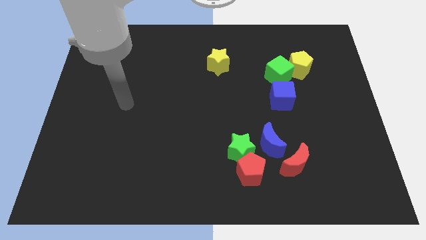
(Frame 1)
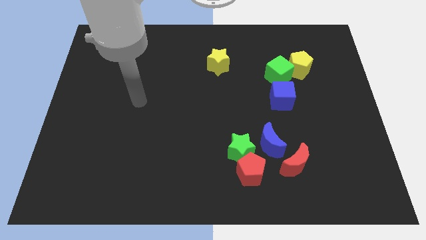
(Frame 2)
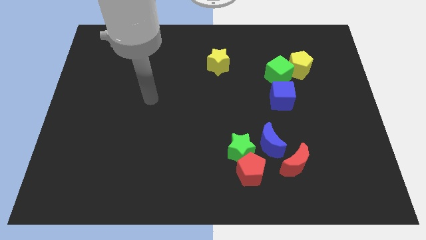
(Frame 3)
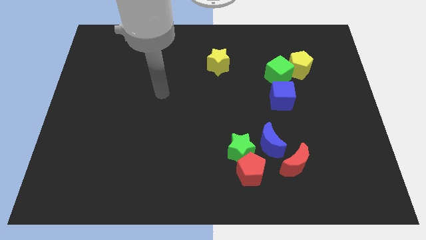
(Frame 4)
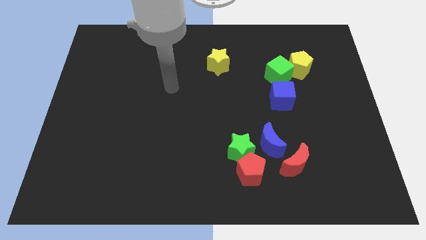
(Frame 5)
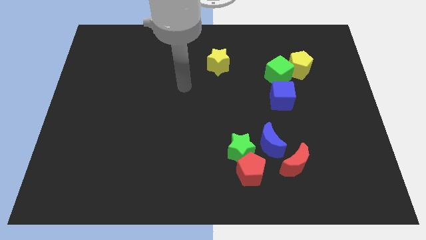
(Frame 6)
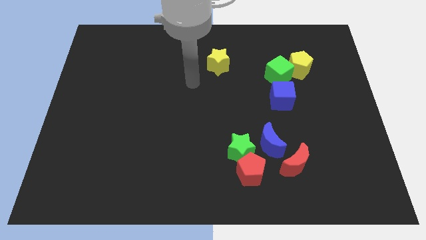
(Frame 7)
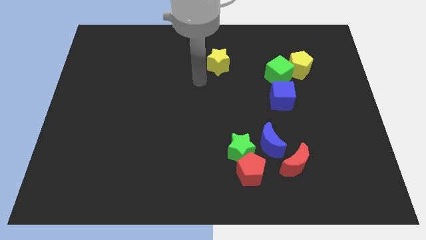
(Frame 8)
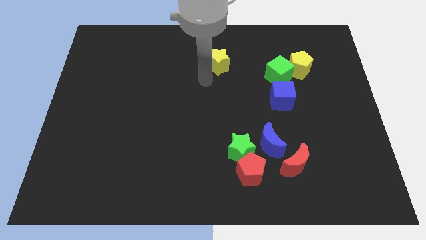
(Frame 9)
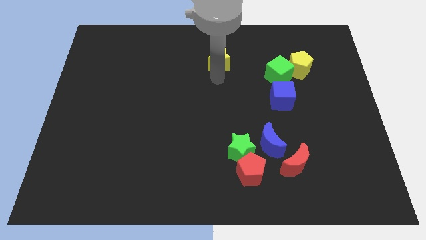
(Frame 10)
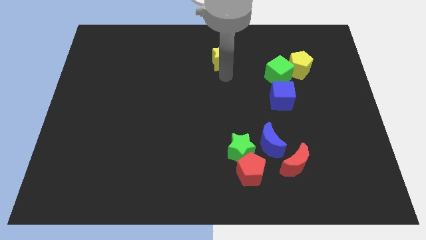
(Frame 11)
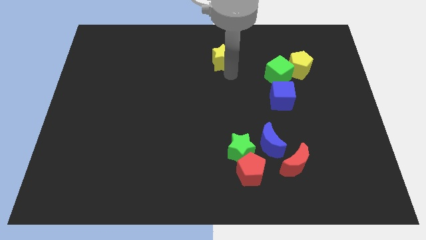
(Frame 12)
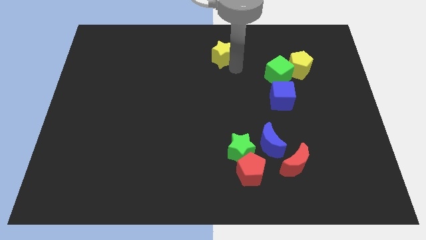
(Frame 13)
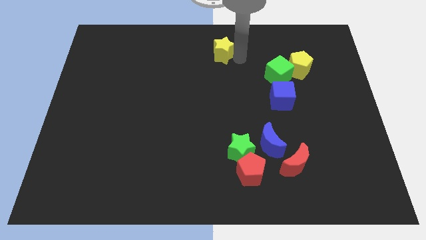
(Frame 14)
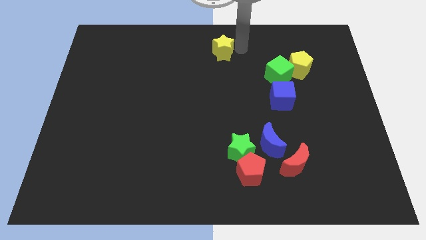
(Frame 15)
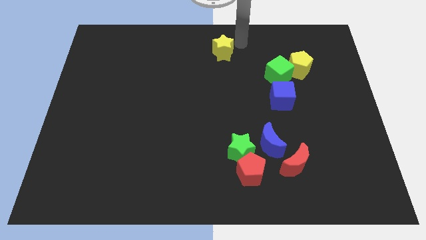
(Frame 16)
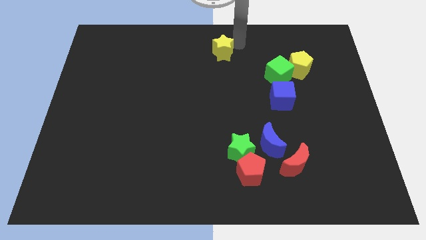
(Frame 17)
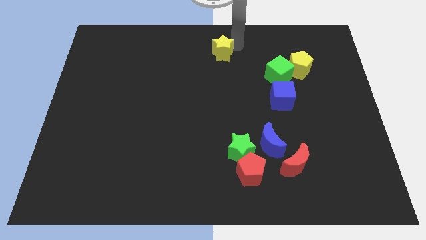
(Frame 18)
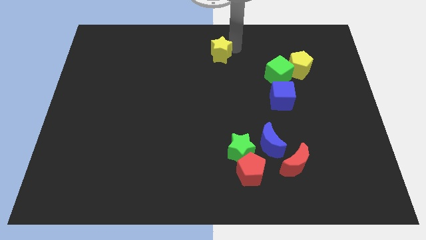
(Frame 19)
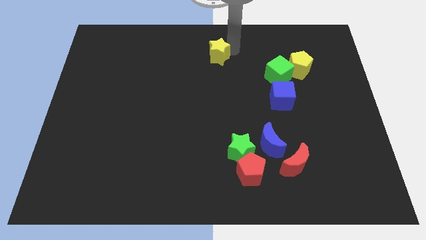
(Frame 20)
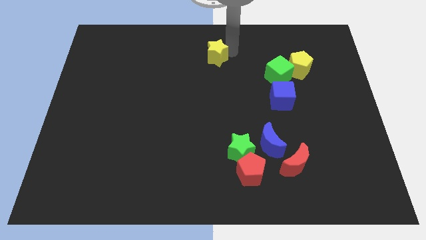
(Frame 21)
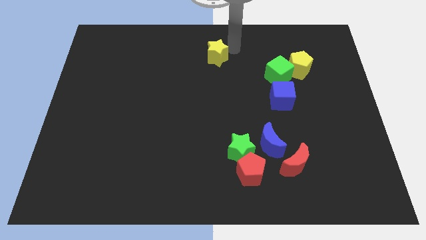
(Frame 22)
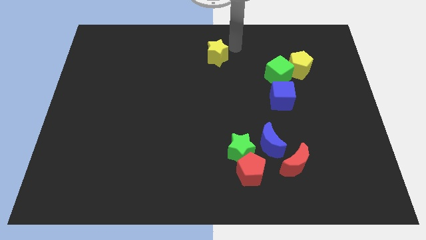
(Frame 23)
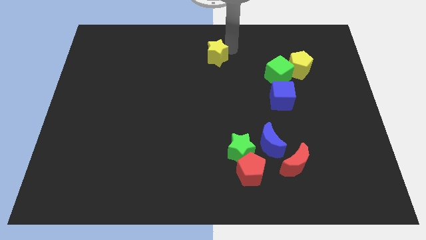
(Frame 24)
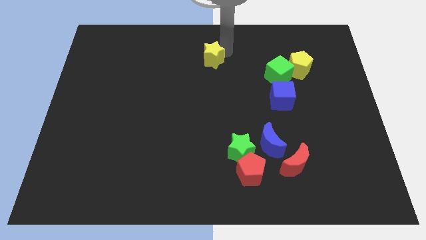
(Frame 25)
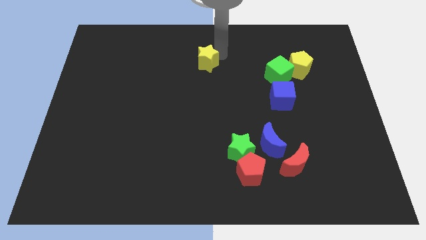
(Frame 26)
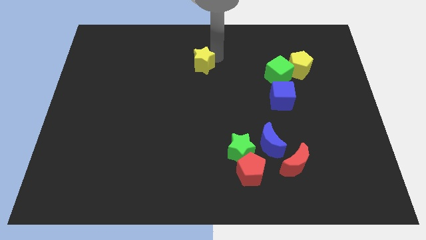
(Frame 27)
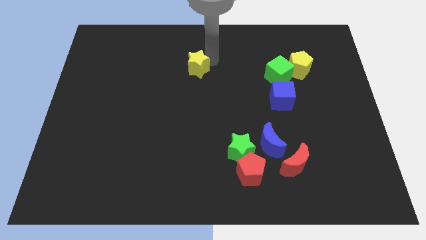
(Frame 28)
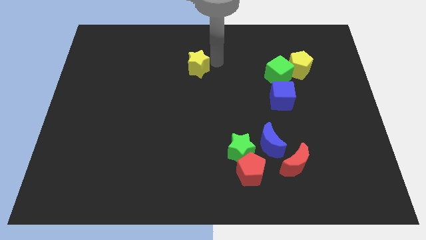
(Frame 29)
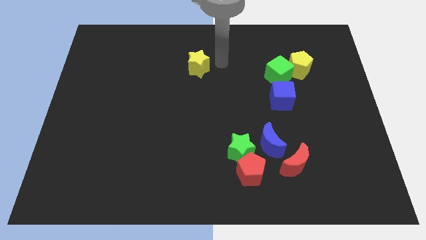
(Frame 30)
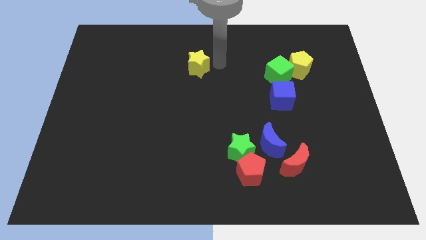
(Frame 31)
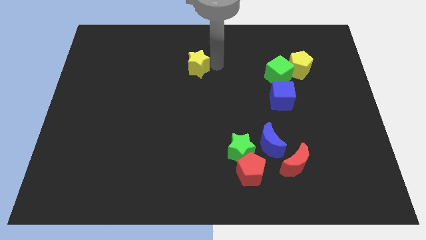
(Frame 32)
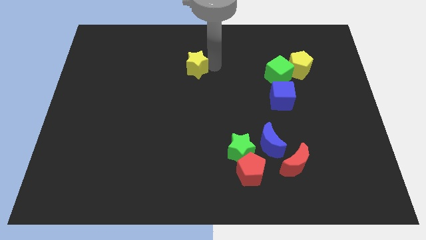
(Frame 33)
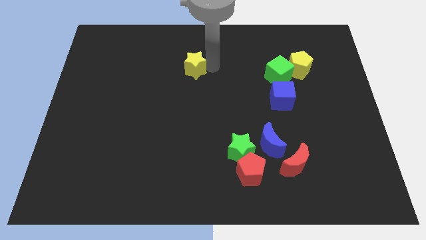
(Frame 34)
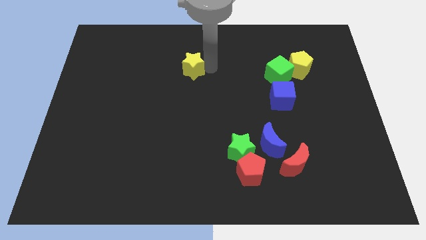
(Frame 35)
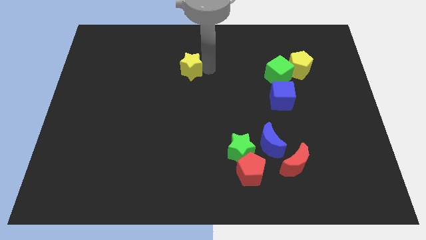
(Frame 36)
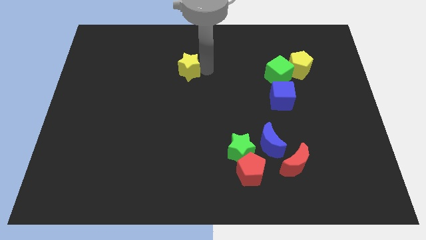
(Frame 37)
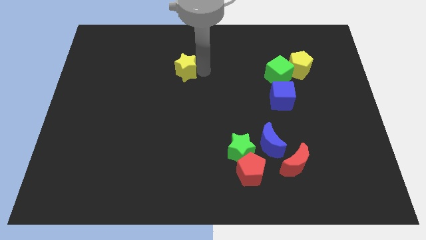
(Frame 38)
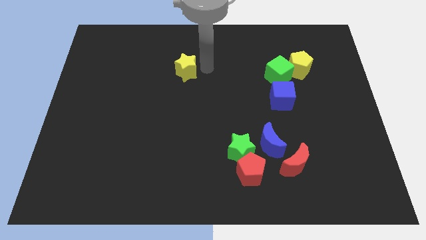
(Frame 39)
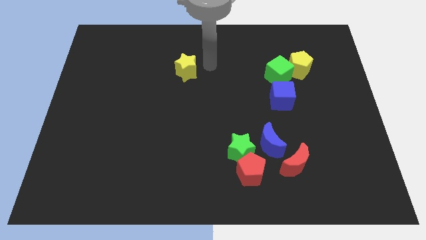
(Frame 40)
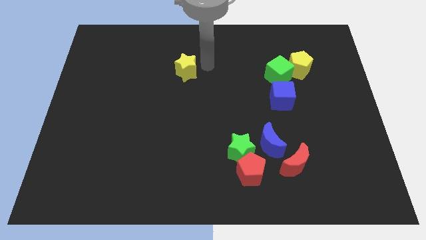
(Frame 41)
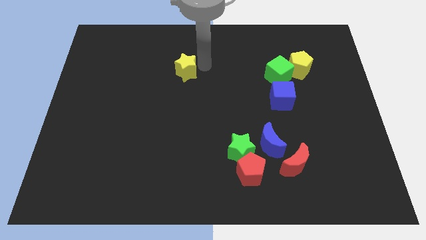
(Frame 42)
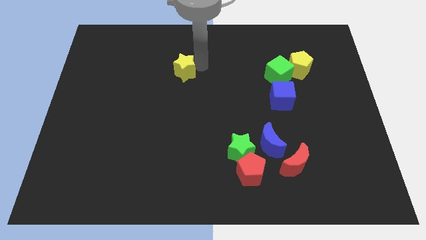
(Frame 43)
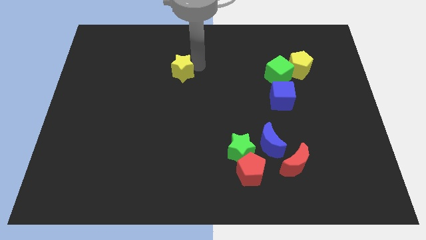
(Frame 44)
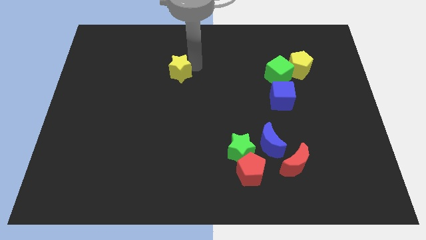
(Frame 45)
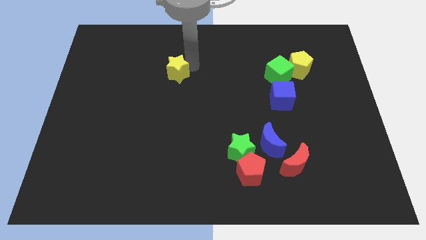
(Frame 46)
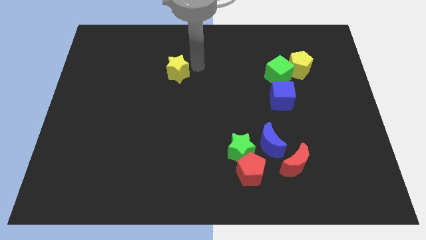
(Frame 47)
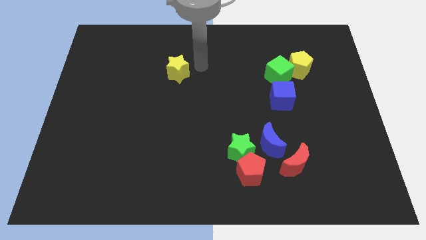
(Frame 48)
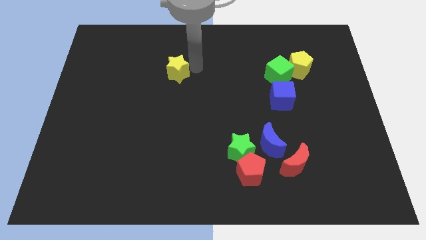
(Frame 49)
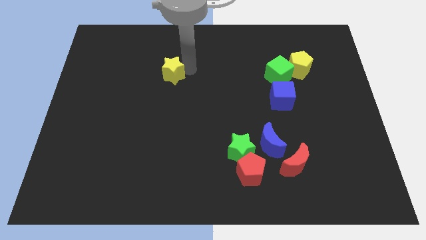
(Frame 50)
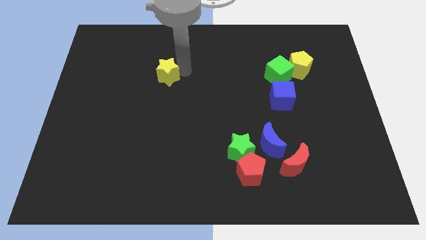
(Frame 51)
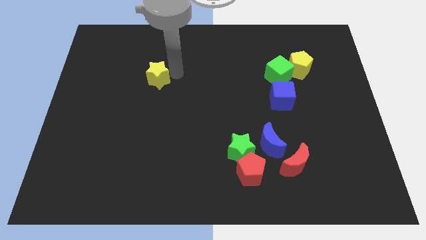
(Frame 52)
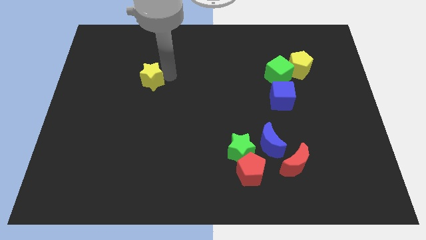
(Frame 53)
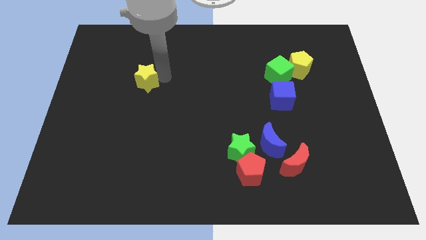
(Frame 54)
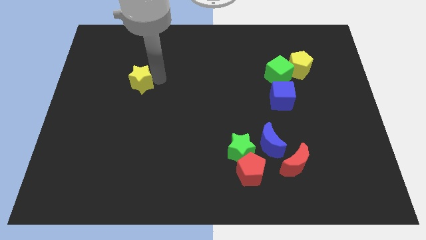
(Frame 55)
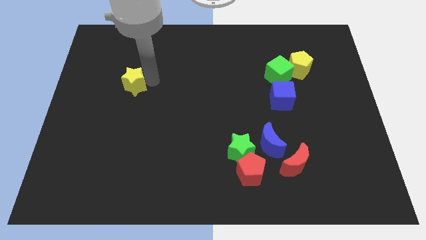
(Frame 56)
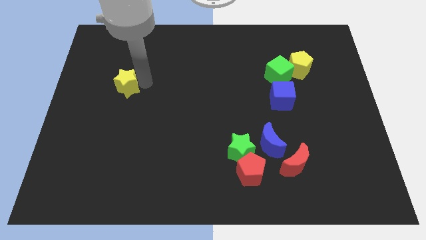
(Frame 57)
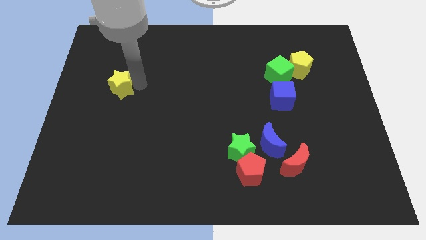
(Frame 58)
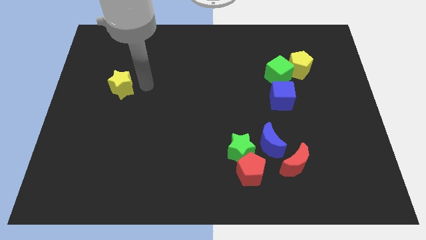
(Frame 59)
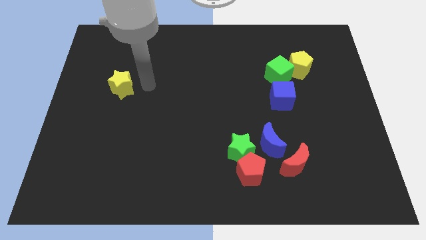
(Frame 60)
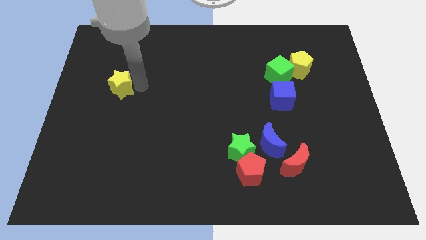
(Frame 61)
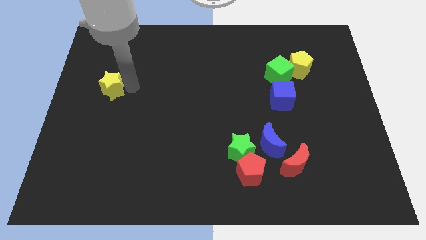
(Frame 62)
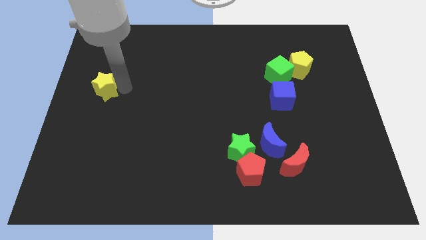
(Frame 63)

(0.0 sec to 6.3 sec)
push the yellow star to the center left

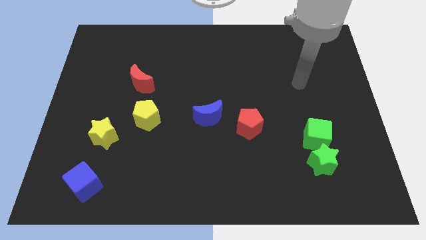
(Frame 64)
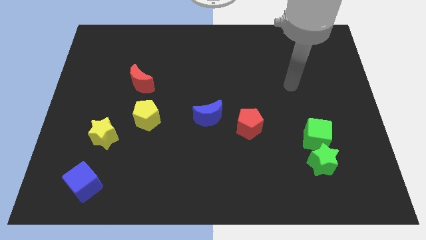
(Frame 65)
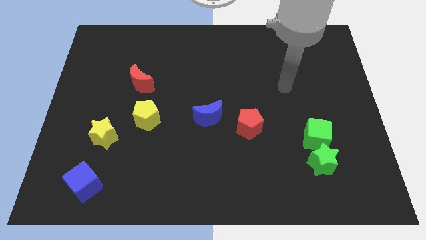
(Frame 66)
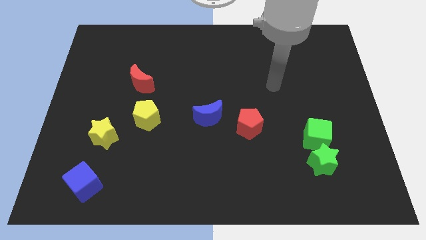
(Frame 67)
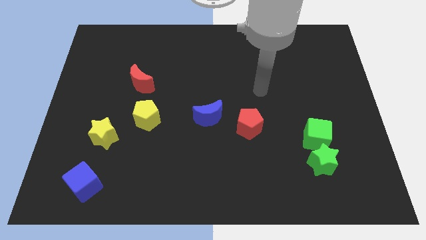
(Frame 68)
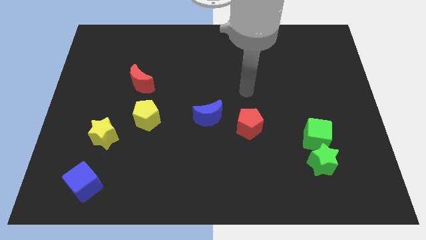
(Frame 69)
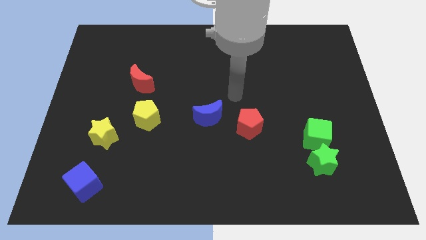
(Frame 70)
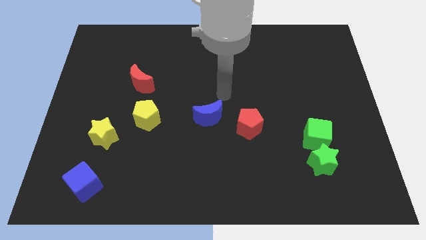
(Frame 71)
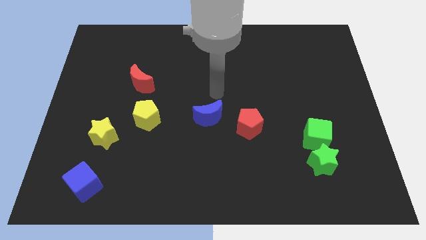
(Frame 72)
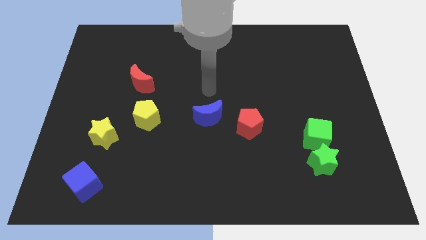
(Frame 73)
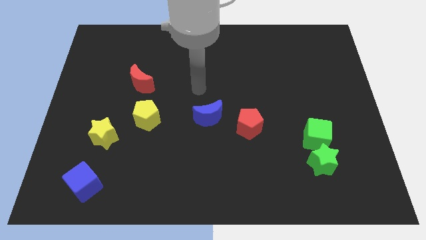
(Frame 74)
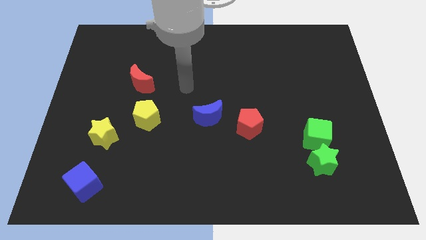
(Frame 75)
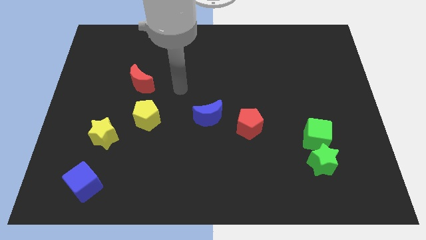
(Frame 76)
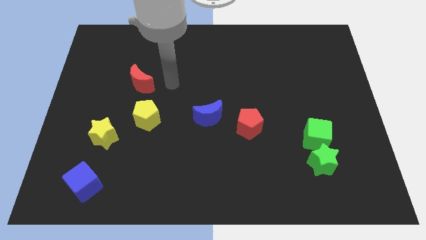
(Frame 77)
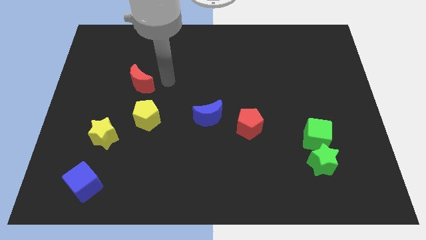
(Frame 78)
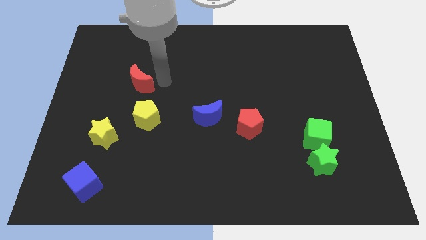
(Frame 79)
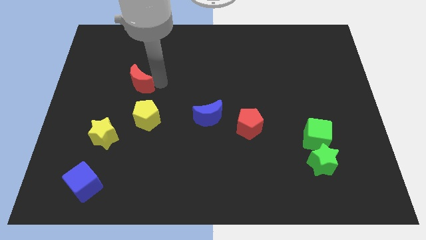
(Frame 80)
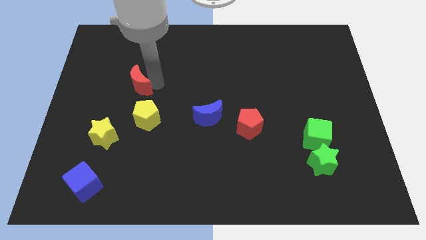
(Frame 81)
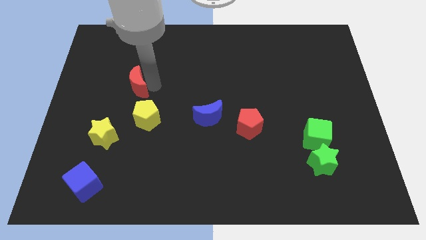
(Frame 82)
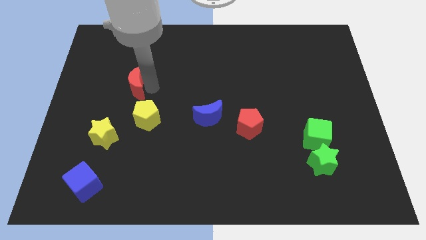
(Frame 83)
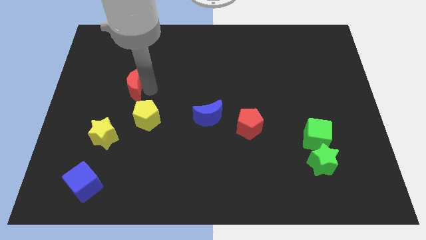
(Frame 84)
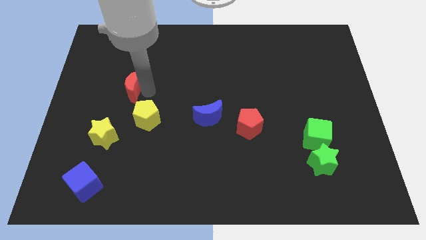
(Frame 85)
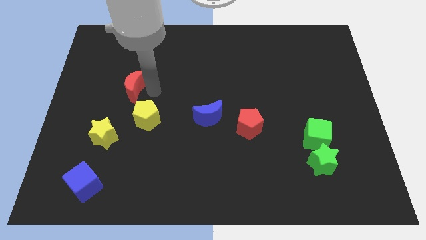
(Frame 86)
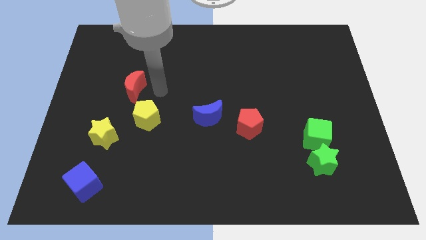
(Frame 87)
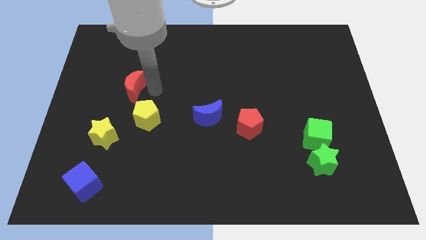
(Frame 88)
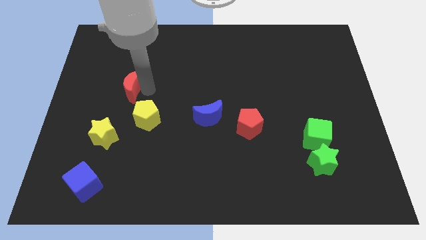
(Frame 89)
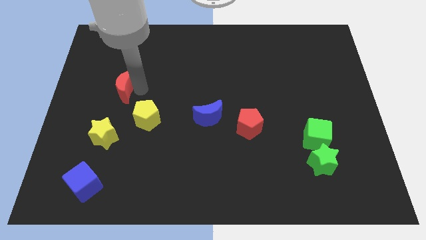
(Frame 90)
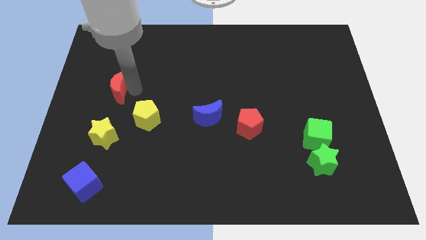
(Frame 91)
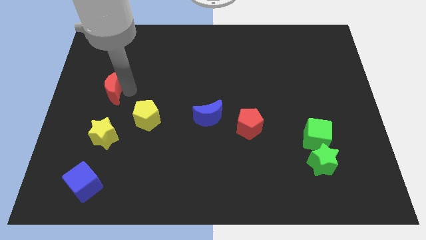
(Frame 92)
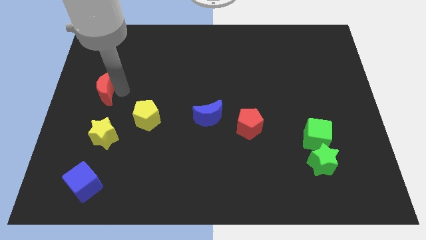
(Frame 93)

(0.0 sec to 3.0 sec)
move the red moon to the left side
